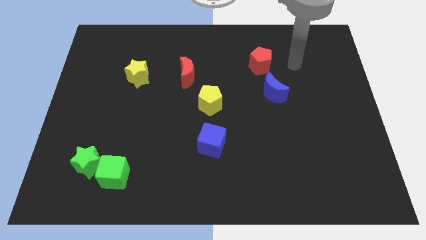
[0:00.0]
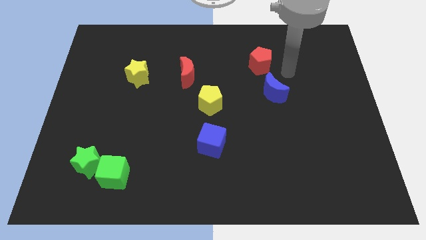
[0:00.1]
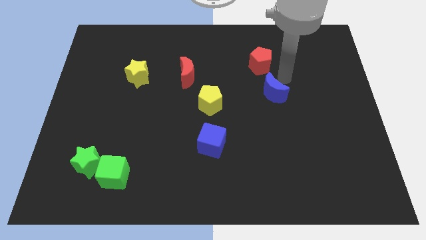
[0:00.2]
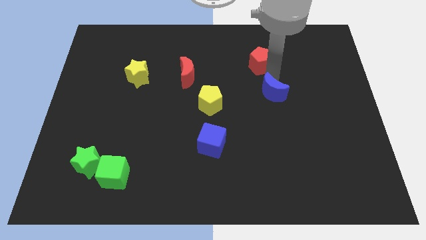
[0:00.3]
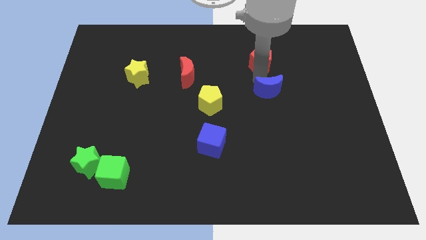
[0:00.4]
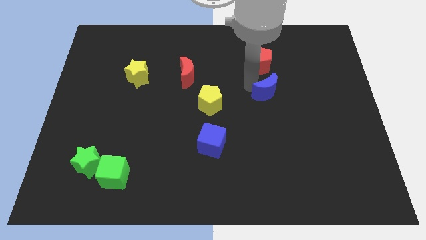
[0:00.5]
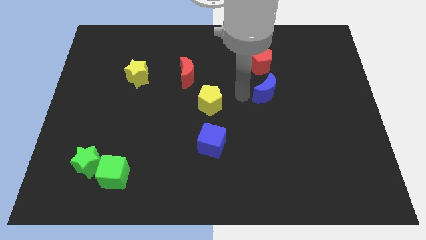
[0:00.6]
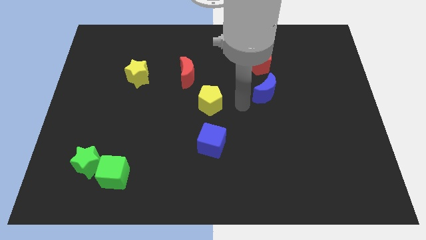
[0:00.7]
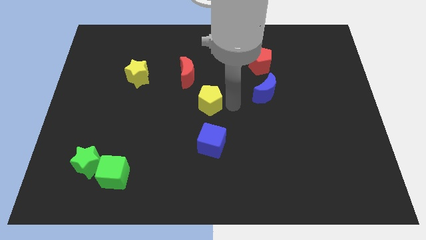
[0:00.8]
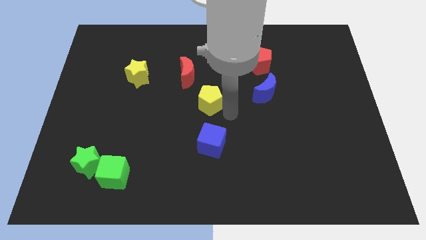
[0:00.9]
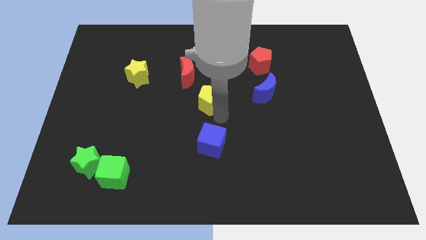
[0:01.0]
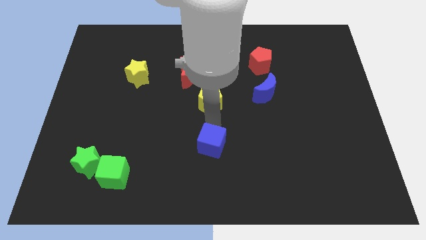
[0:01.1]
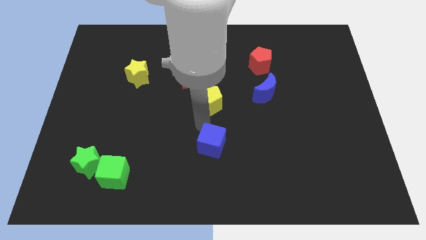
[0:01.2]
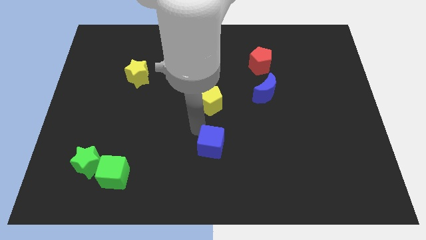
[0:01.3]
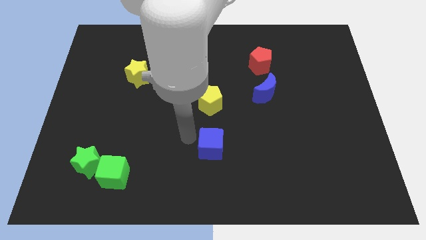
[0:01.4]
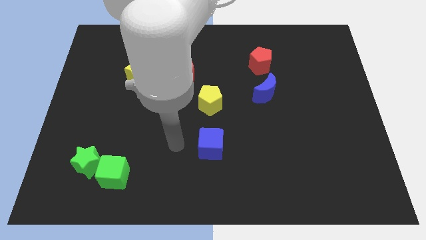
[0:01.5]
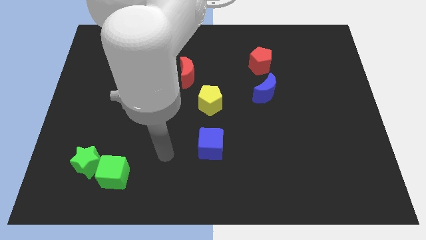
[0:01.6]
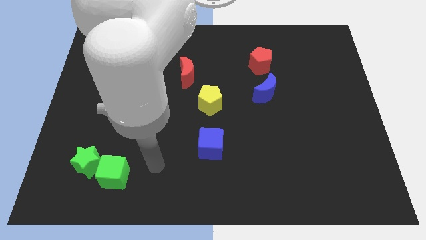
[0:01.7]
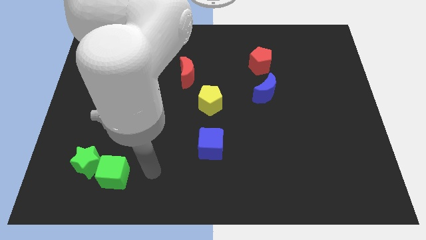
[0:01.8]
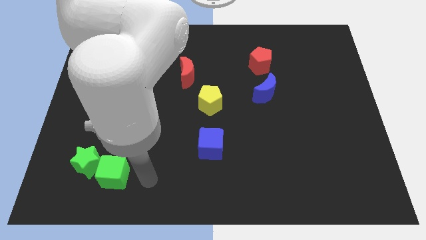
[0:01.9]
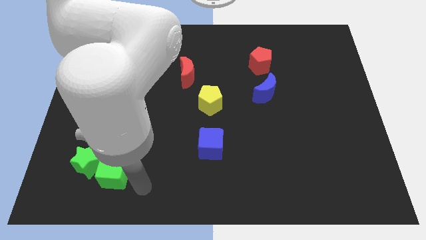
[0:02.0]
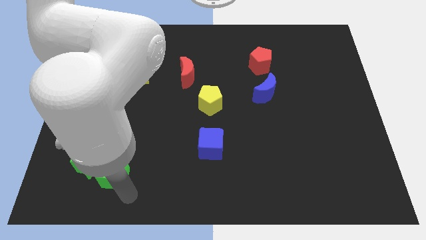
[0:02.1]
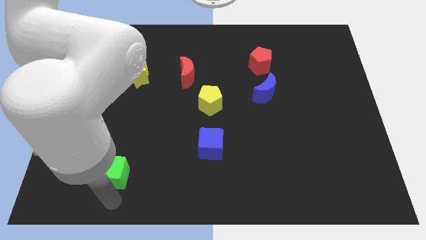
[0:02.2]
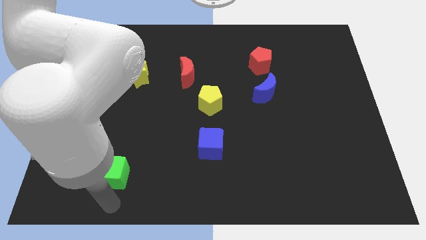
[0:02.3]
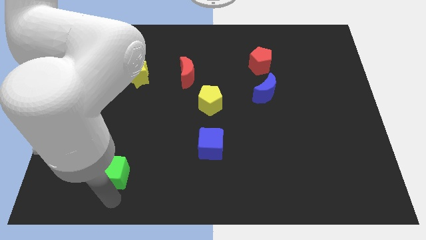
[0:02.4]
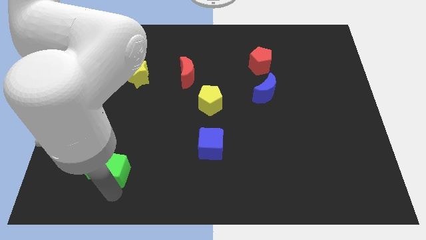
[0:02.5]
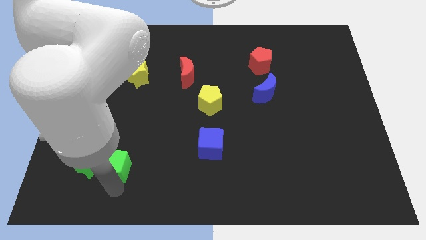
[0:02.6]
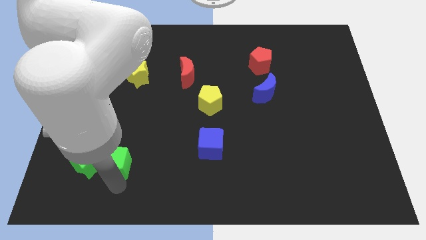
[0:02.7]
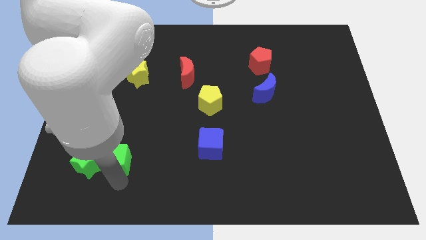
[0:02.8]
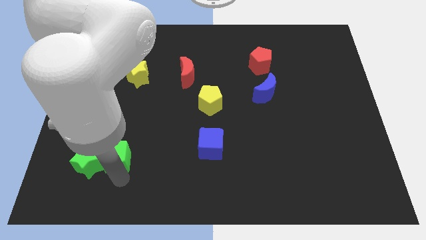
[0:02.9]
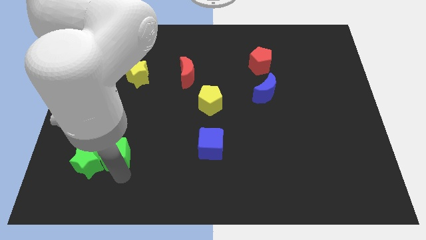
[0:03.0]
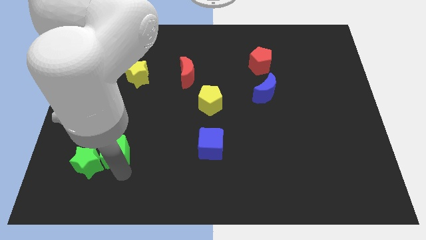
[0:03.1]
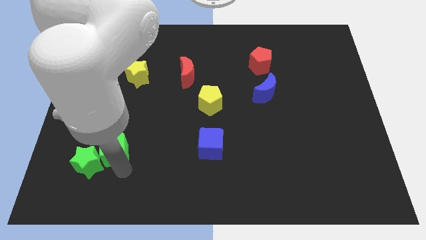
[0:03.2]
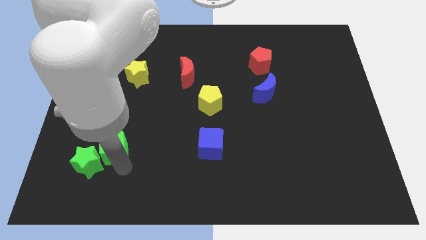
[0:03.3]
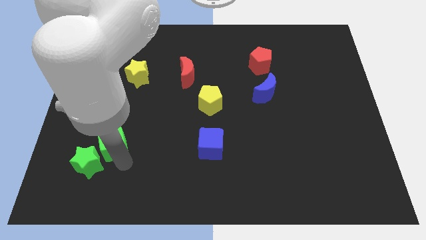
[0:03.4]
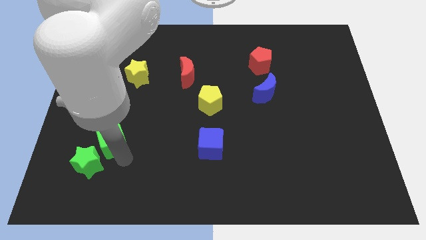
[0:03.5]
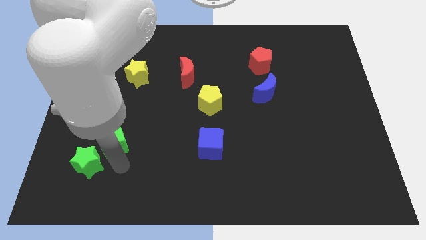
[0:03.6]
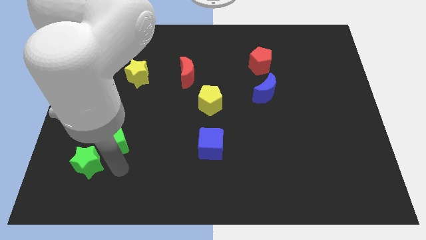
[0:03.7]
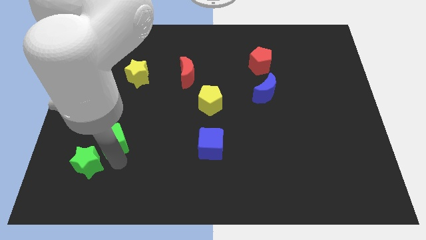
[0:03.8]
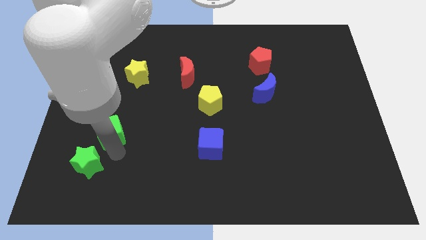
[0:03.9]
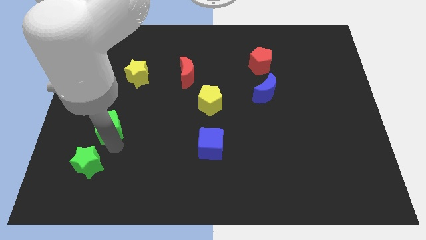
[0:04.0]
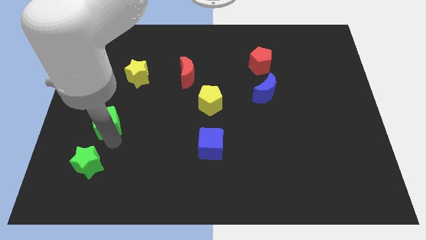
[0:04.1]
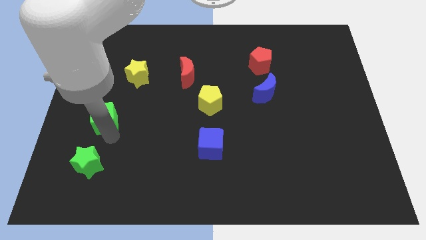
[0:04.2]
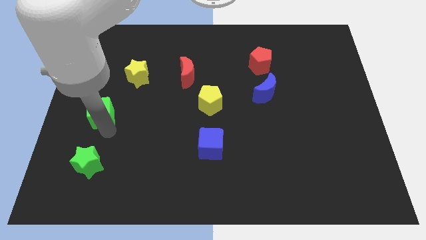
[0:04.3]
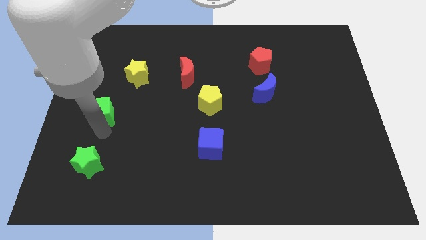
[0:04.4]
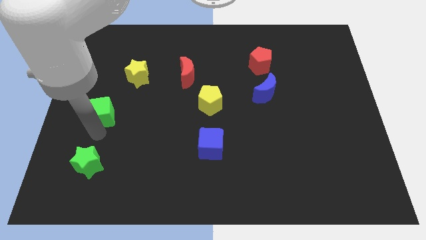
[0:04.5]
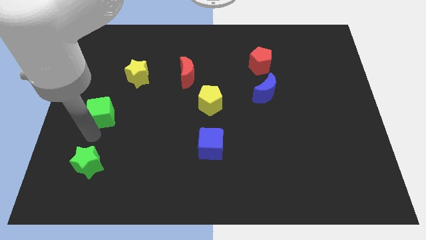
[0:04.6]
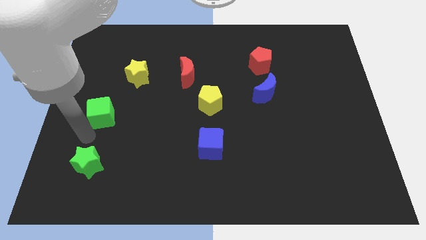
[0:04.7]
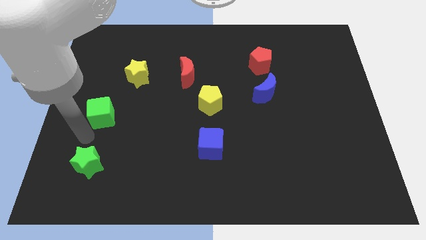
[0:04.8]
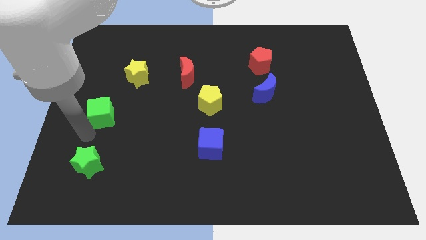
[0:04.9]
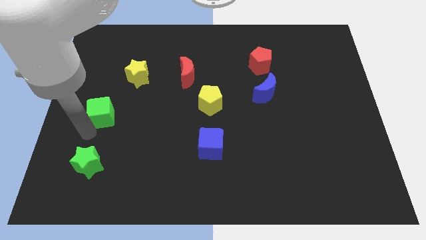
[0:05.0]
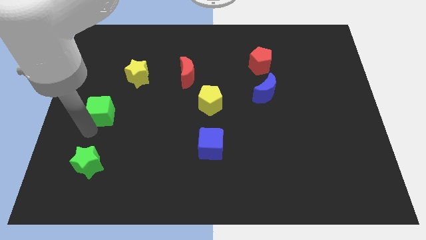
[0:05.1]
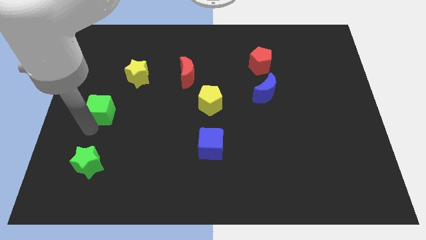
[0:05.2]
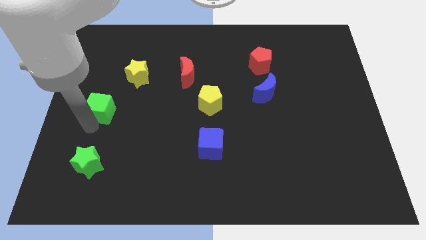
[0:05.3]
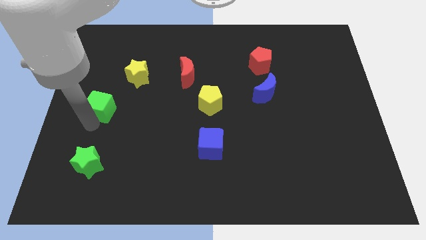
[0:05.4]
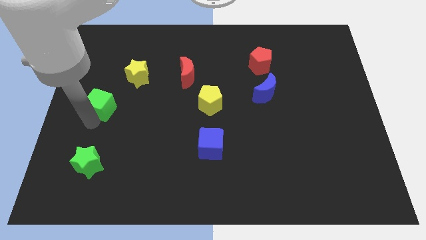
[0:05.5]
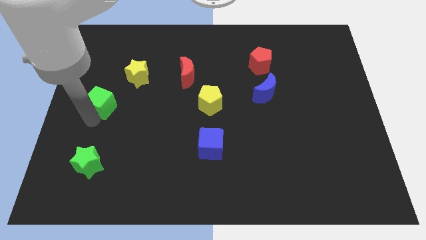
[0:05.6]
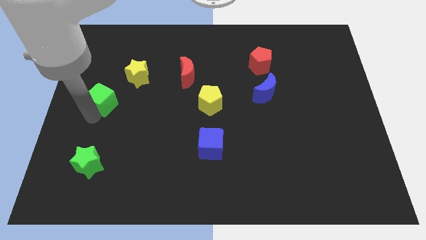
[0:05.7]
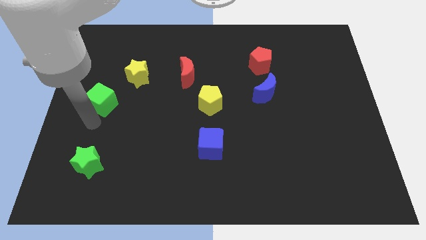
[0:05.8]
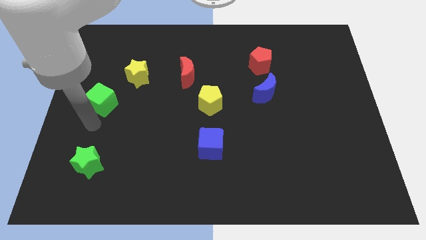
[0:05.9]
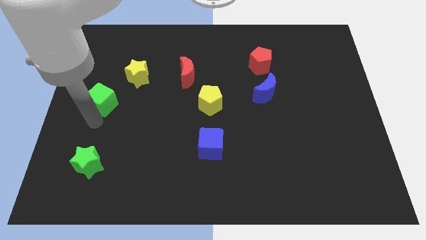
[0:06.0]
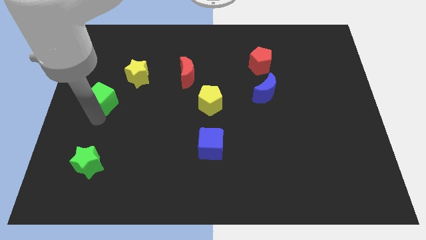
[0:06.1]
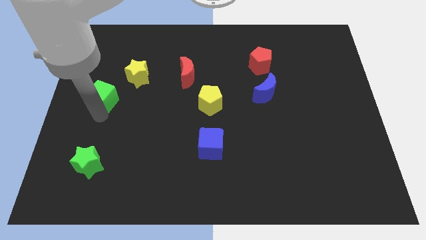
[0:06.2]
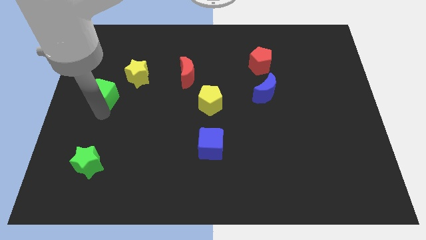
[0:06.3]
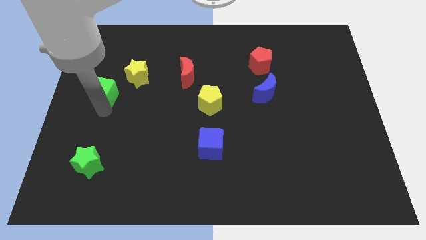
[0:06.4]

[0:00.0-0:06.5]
slide the green cube up

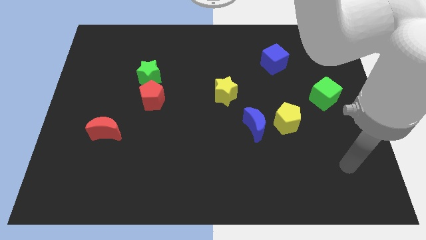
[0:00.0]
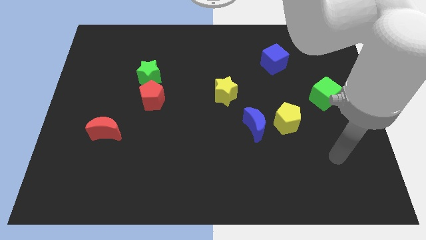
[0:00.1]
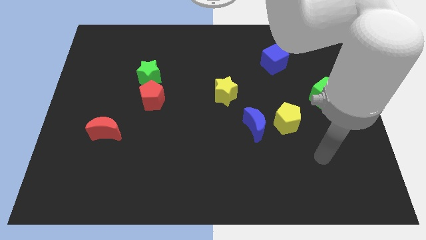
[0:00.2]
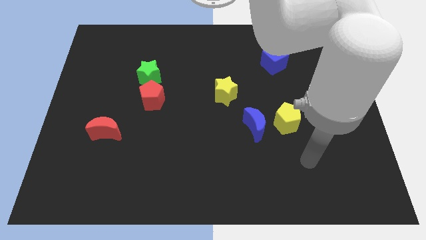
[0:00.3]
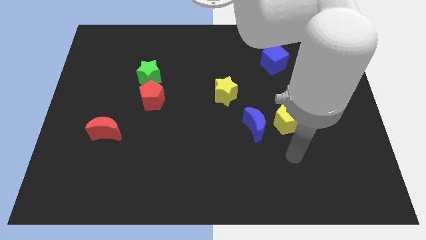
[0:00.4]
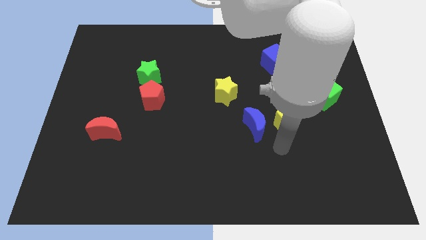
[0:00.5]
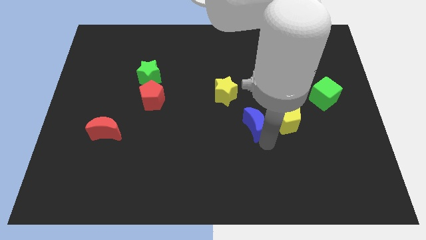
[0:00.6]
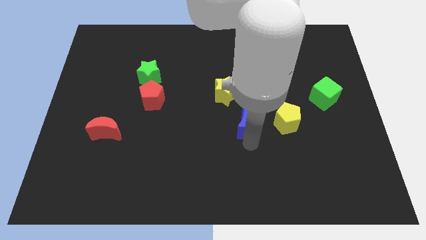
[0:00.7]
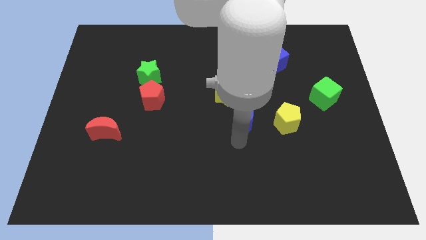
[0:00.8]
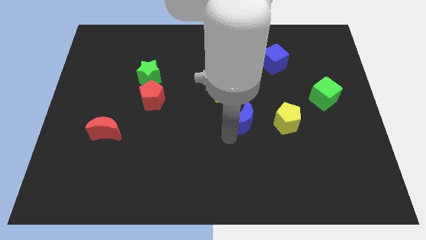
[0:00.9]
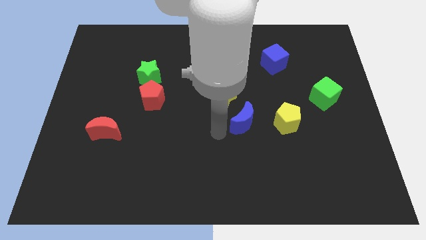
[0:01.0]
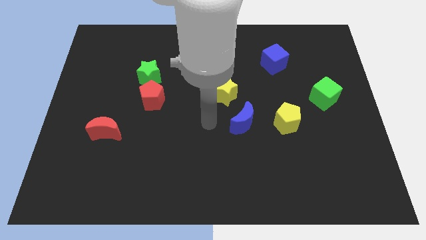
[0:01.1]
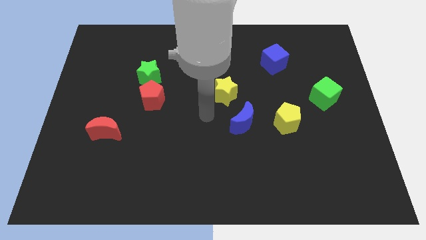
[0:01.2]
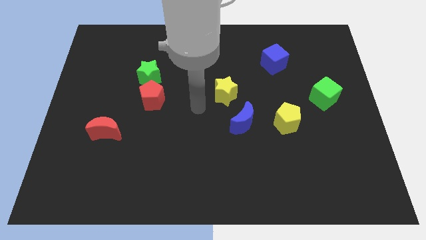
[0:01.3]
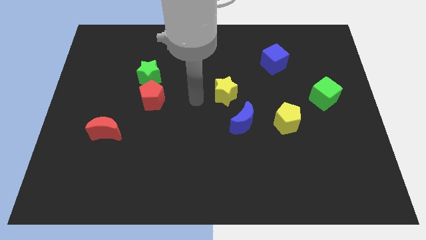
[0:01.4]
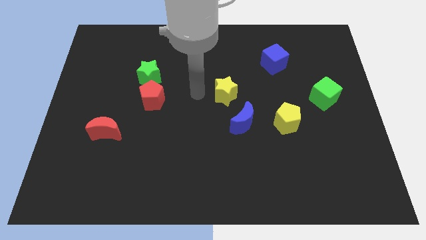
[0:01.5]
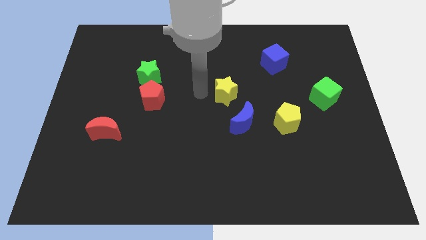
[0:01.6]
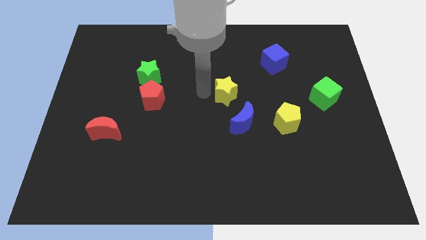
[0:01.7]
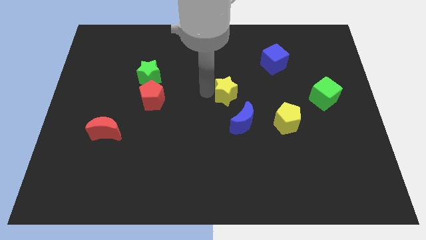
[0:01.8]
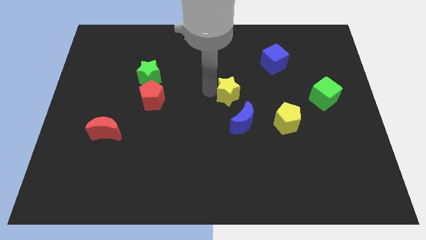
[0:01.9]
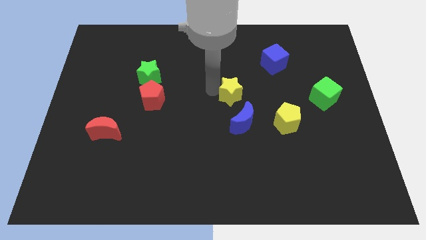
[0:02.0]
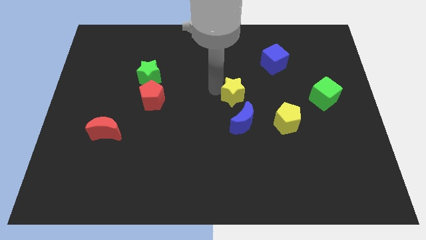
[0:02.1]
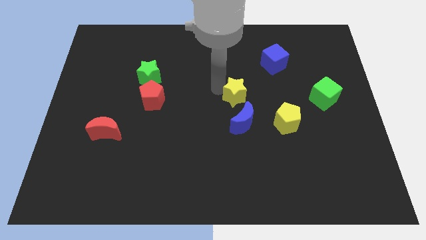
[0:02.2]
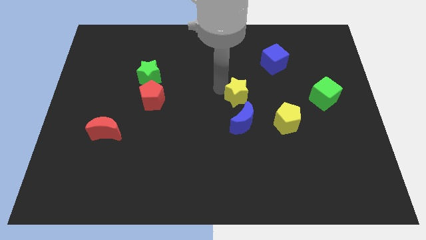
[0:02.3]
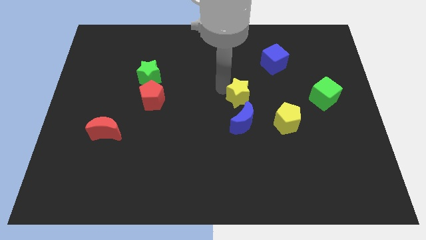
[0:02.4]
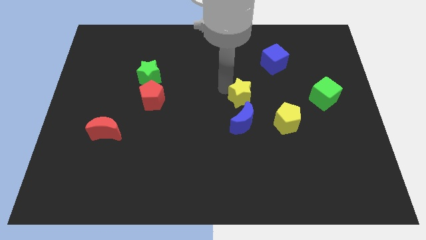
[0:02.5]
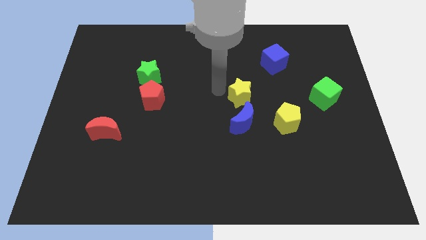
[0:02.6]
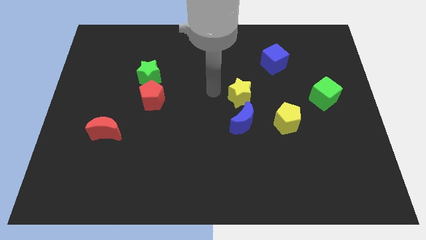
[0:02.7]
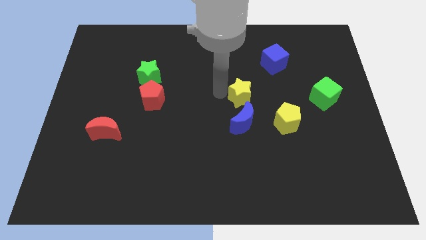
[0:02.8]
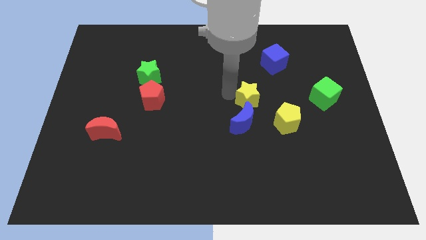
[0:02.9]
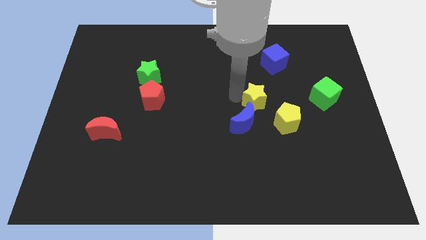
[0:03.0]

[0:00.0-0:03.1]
slightly push the yellow star right
